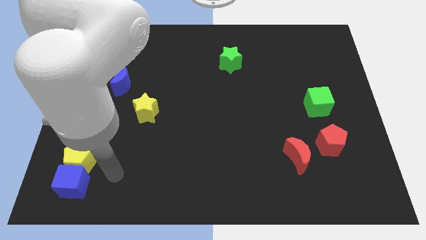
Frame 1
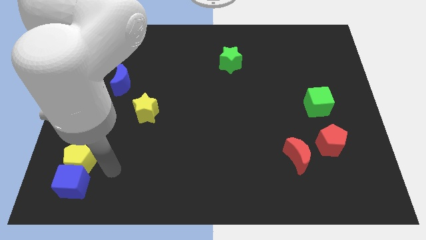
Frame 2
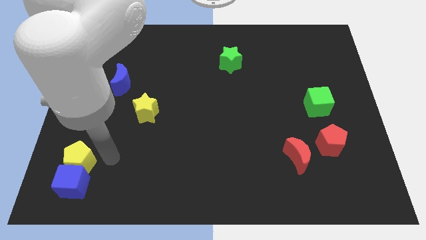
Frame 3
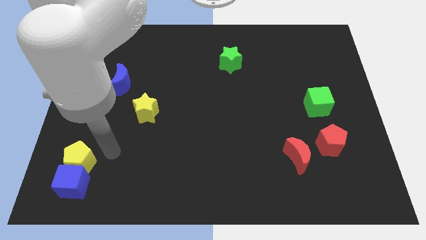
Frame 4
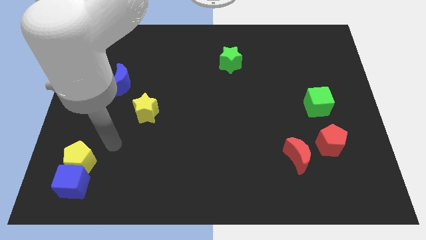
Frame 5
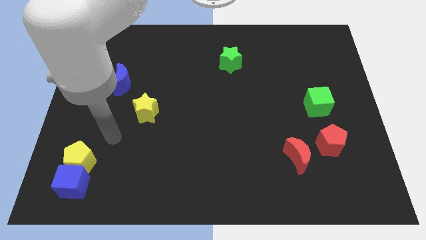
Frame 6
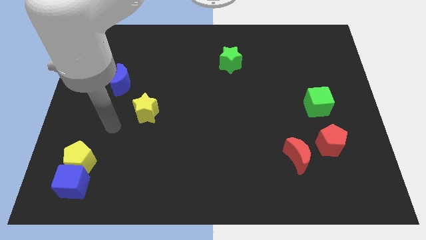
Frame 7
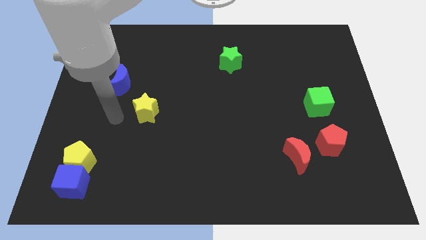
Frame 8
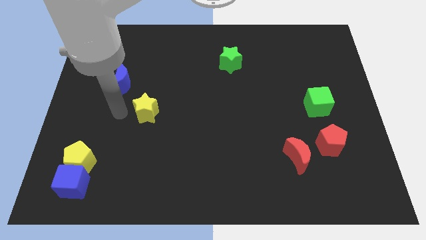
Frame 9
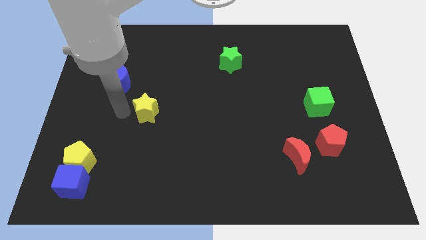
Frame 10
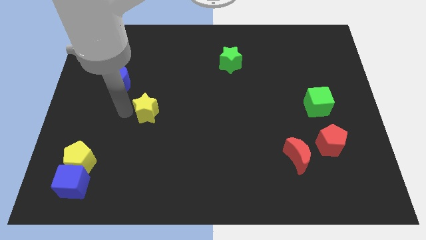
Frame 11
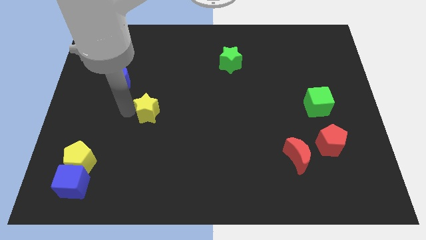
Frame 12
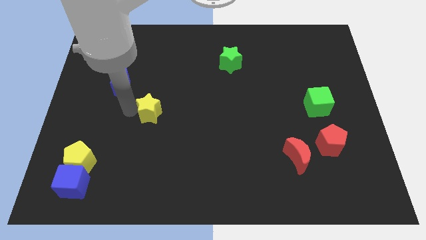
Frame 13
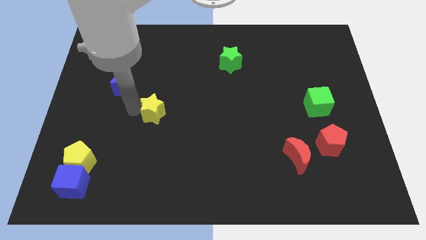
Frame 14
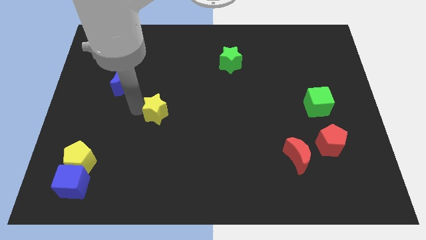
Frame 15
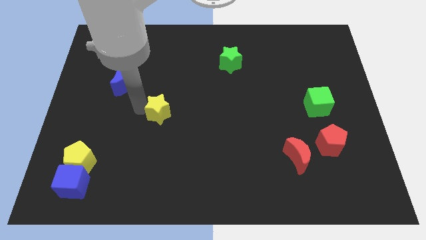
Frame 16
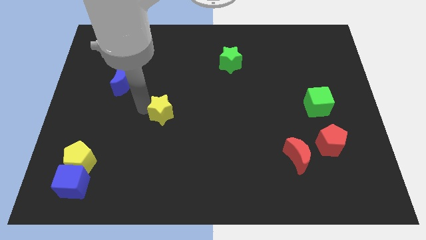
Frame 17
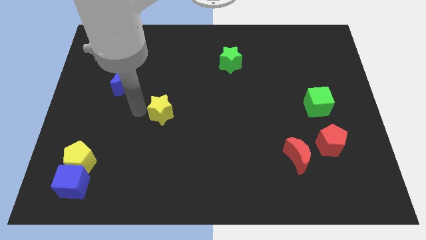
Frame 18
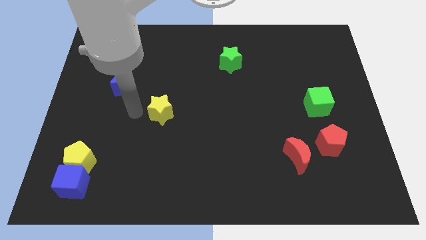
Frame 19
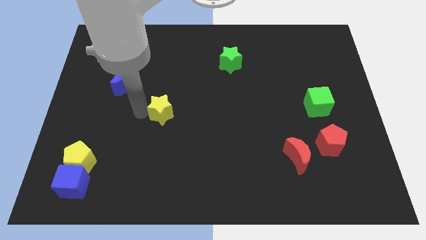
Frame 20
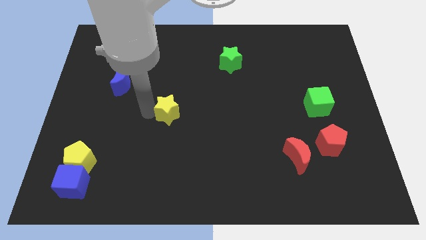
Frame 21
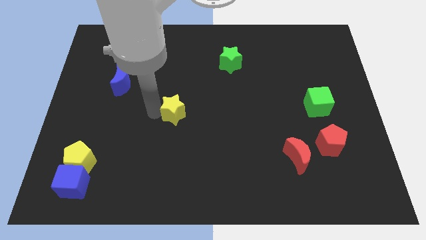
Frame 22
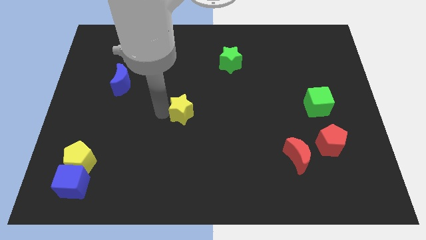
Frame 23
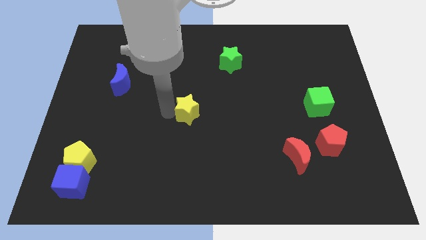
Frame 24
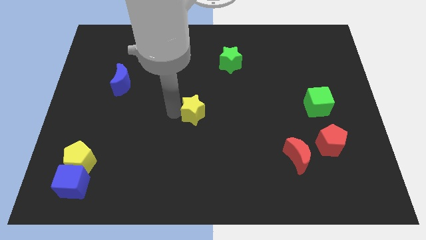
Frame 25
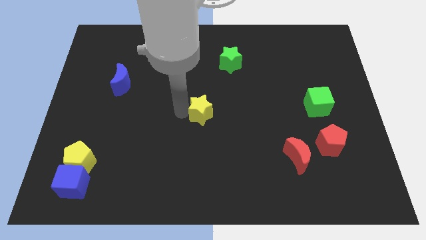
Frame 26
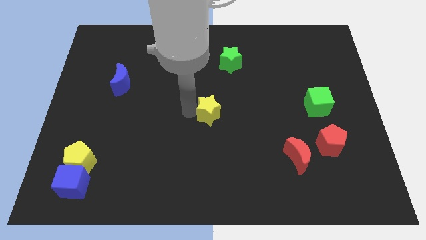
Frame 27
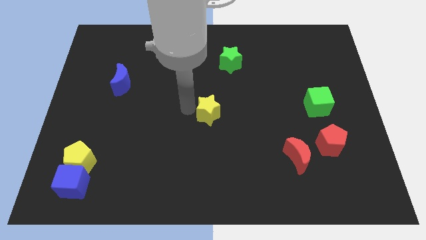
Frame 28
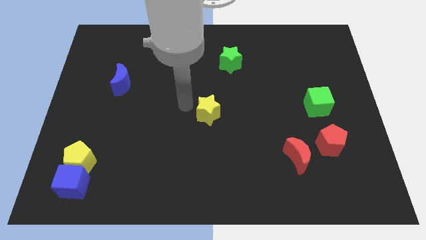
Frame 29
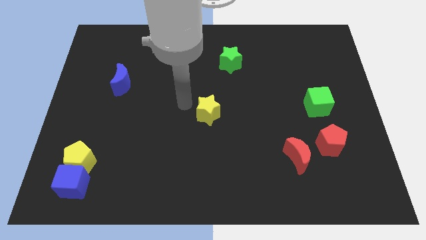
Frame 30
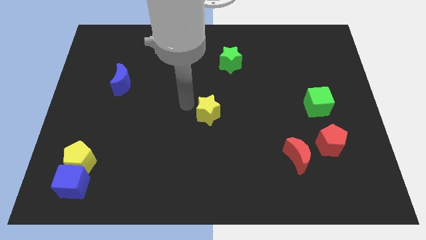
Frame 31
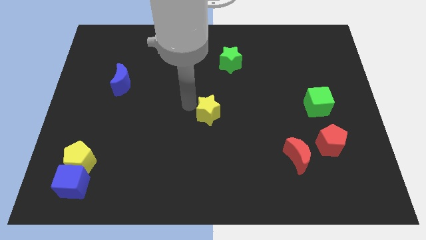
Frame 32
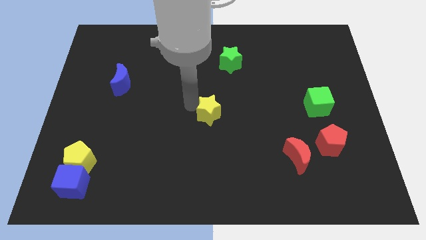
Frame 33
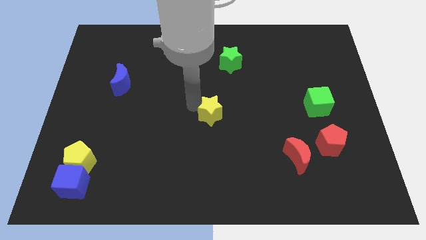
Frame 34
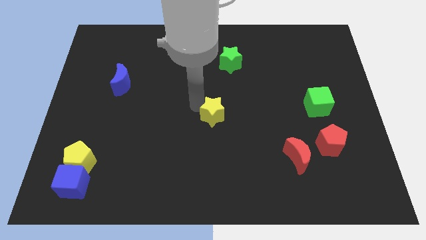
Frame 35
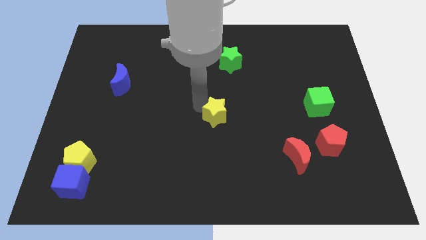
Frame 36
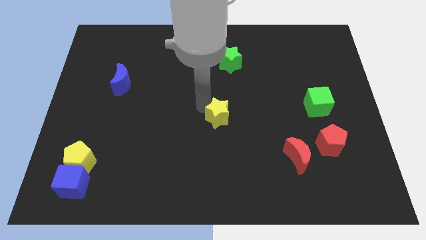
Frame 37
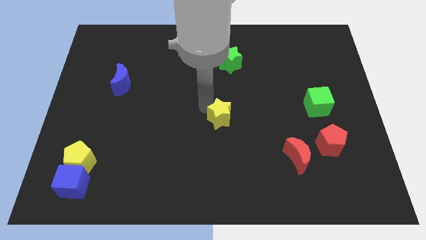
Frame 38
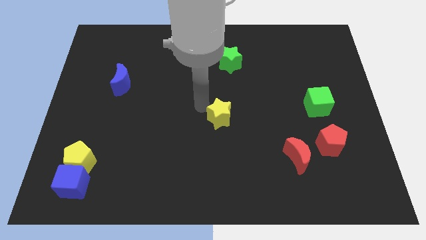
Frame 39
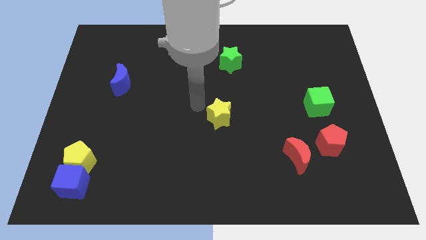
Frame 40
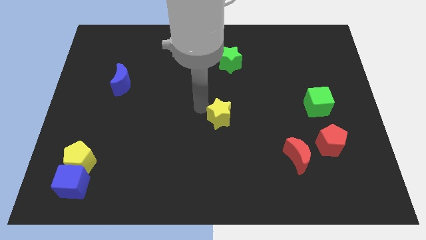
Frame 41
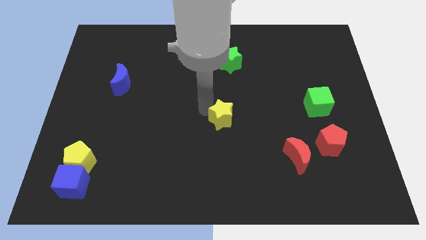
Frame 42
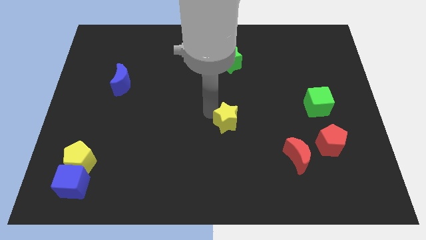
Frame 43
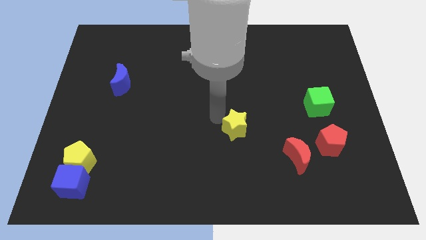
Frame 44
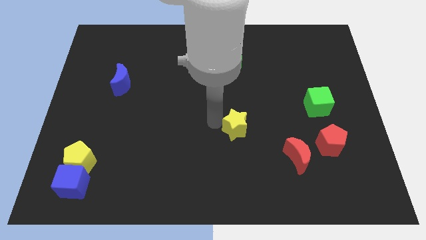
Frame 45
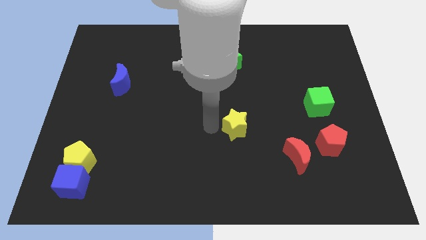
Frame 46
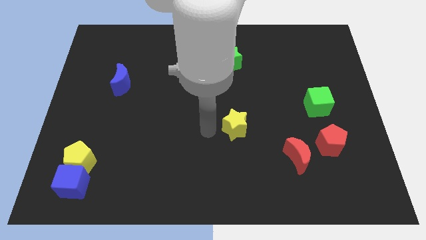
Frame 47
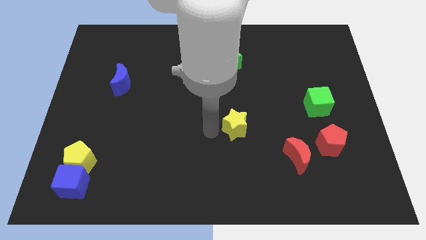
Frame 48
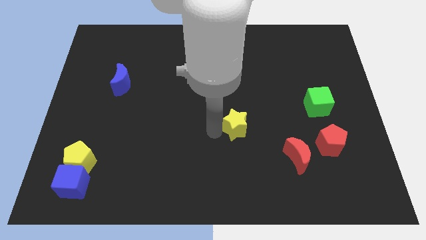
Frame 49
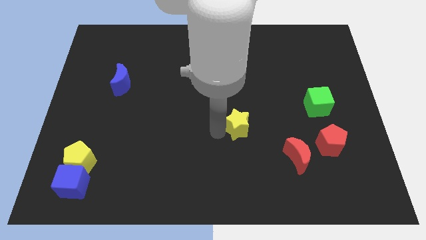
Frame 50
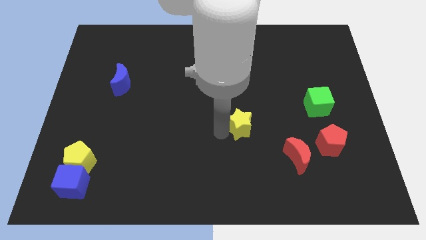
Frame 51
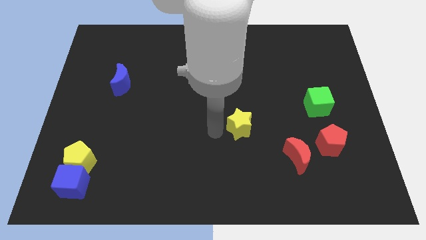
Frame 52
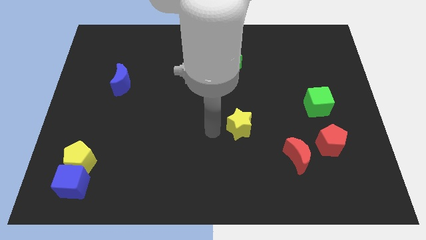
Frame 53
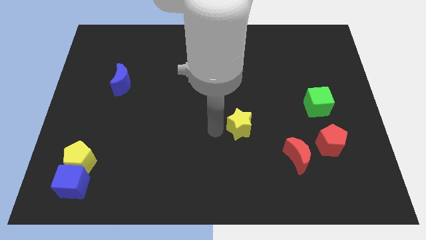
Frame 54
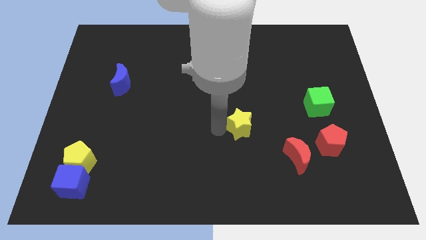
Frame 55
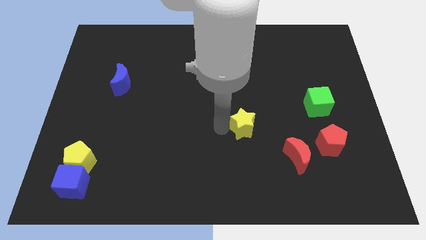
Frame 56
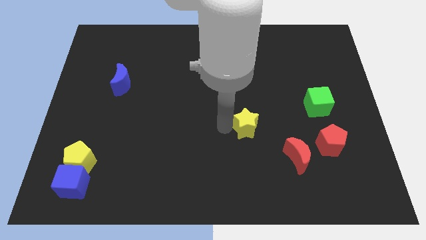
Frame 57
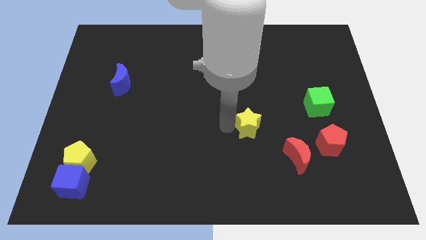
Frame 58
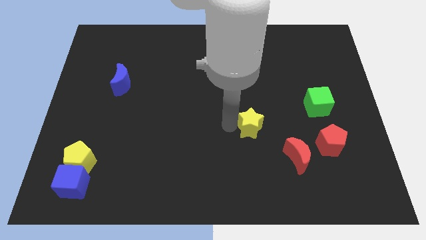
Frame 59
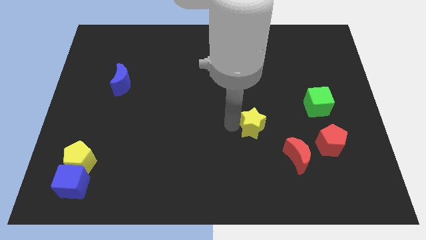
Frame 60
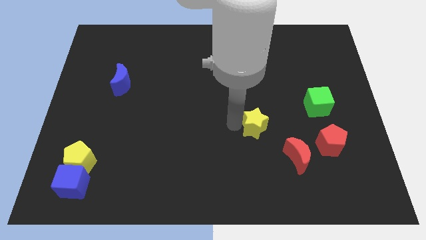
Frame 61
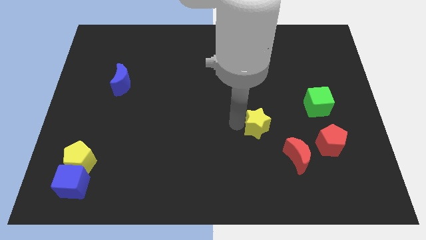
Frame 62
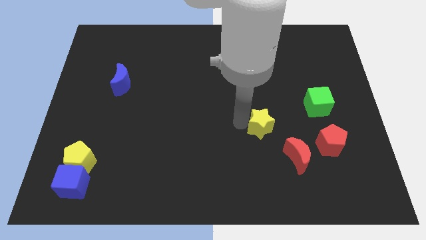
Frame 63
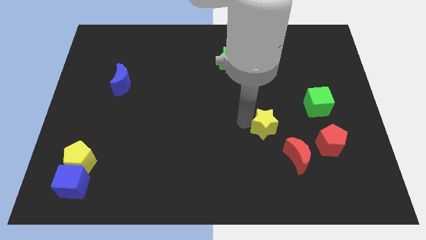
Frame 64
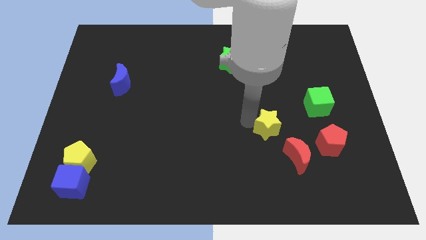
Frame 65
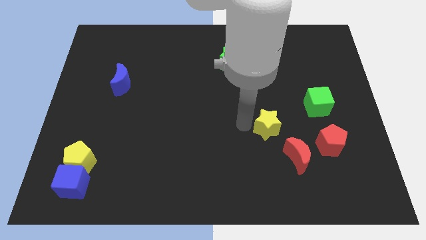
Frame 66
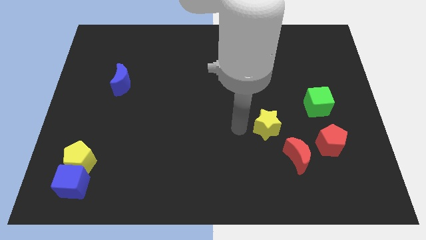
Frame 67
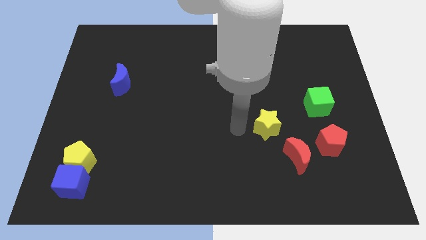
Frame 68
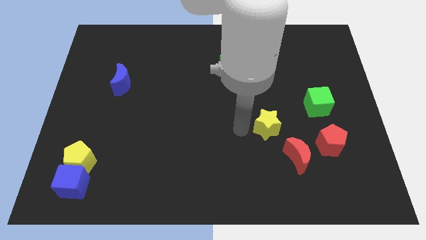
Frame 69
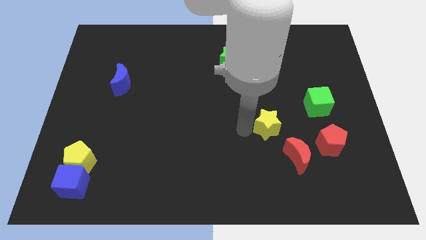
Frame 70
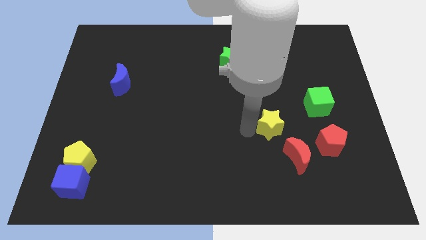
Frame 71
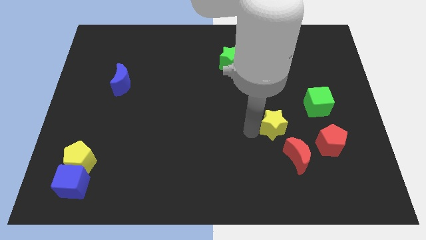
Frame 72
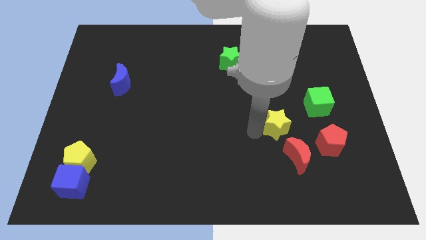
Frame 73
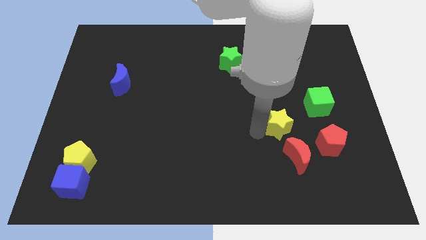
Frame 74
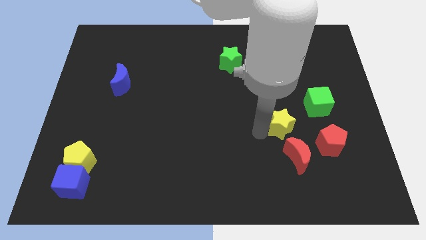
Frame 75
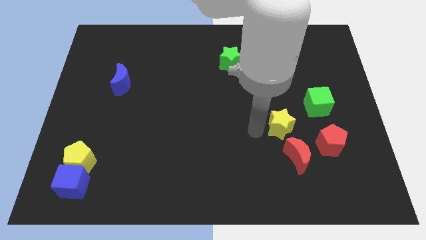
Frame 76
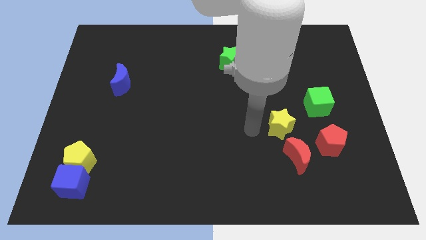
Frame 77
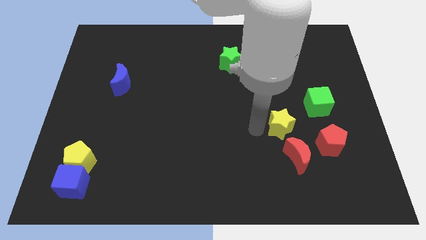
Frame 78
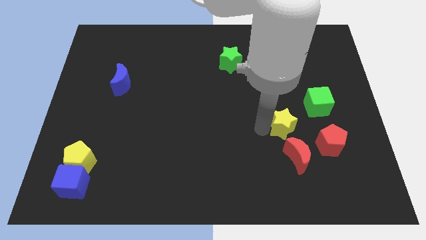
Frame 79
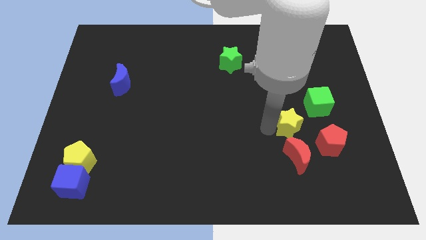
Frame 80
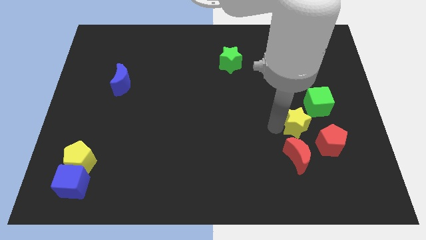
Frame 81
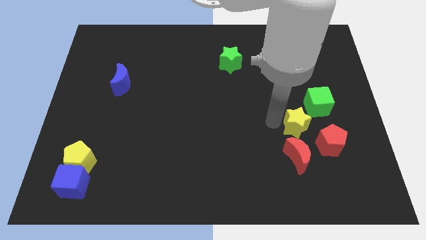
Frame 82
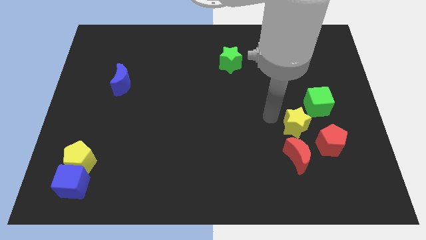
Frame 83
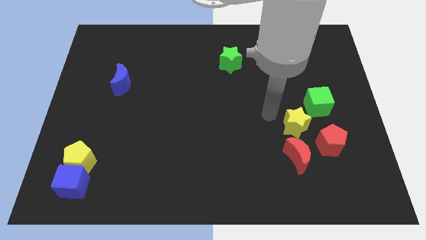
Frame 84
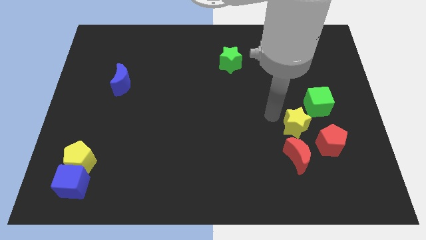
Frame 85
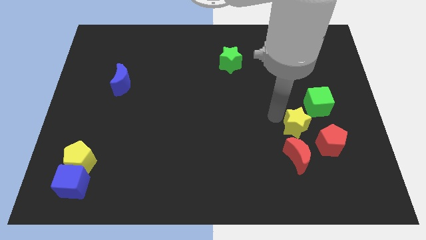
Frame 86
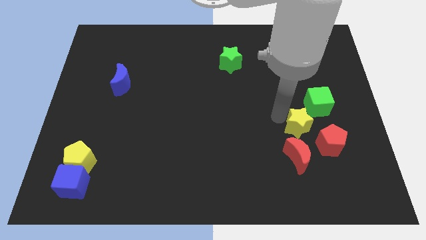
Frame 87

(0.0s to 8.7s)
slide the yellow star to the top right side of the red moon
